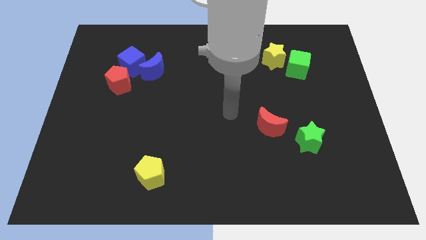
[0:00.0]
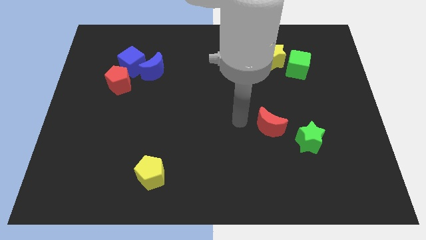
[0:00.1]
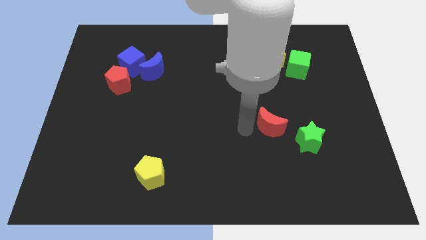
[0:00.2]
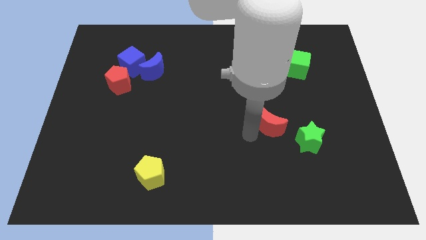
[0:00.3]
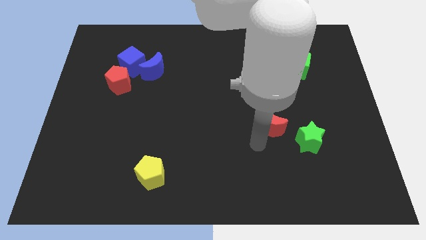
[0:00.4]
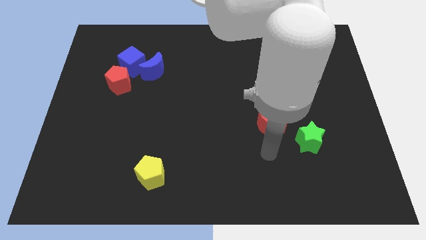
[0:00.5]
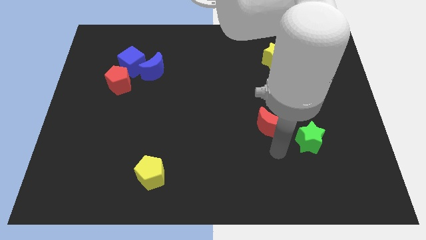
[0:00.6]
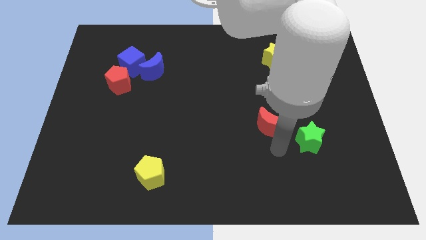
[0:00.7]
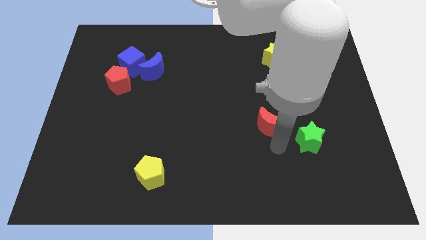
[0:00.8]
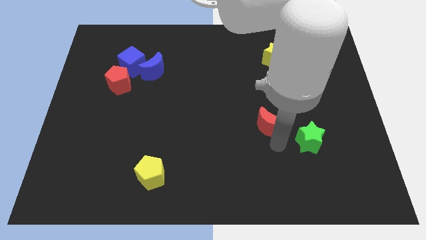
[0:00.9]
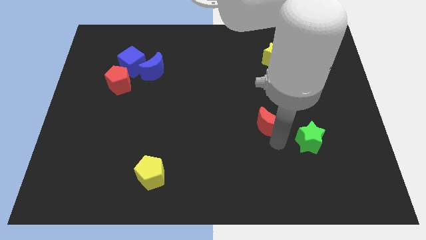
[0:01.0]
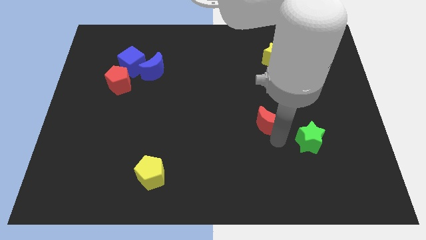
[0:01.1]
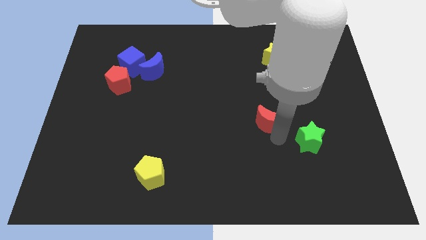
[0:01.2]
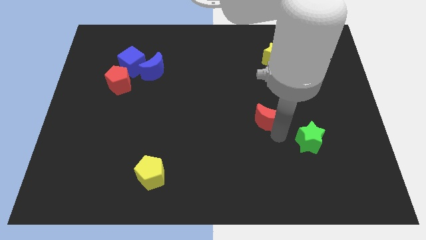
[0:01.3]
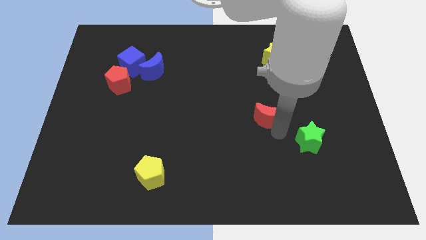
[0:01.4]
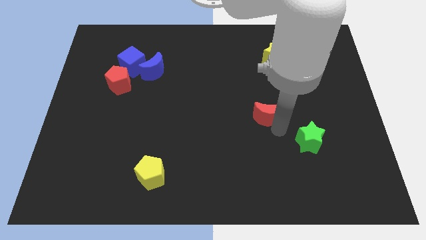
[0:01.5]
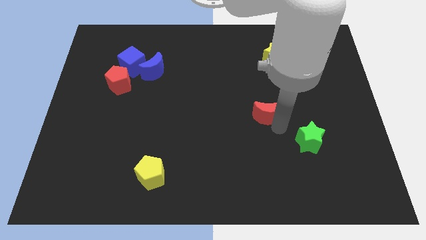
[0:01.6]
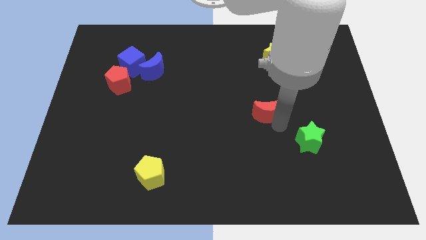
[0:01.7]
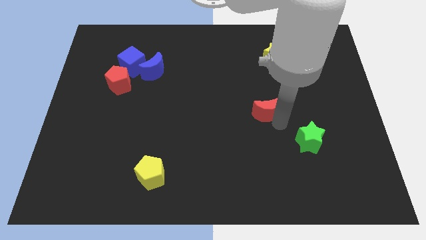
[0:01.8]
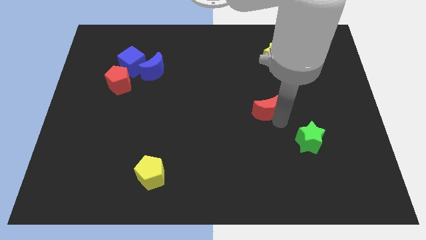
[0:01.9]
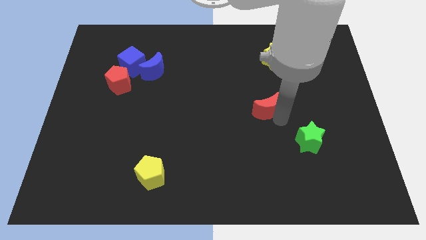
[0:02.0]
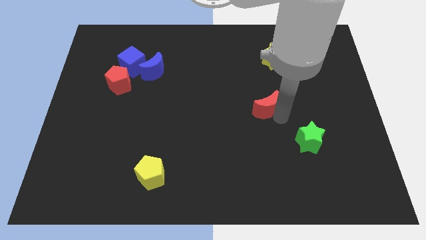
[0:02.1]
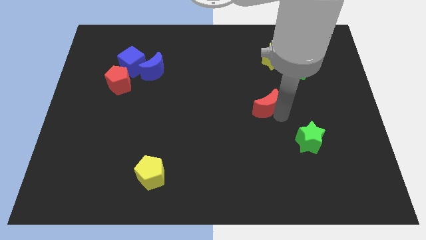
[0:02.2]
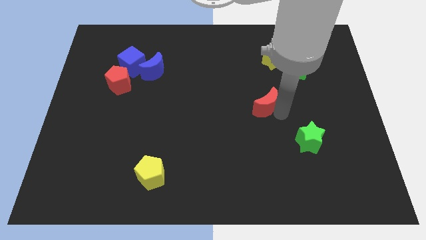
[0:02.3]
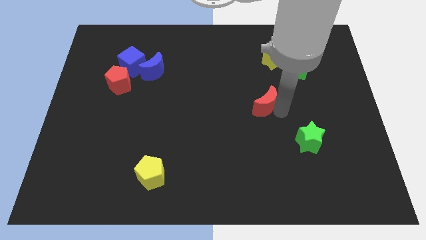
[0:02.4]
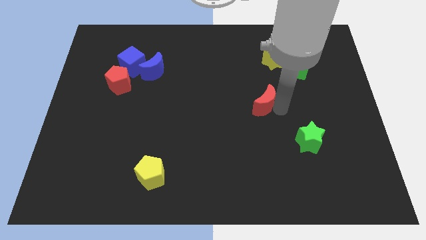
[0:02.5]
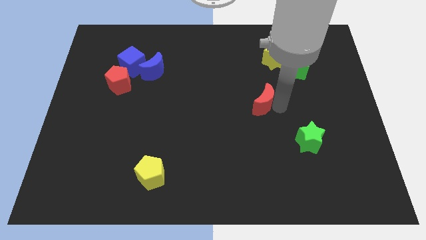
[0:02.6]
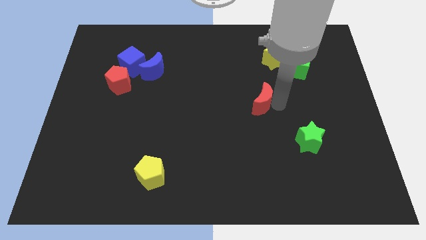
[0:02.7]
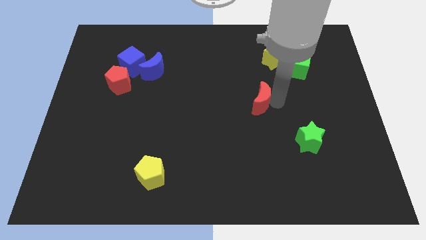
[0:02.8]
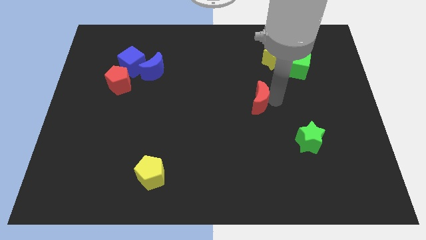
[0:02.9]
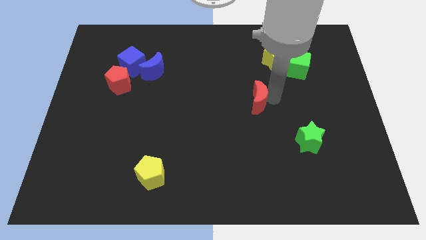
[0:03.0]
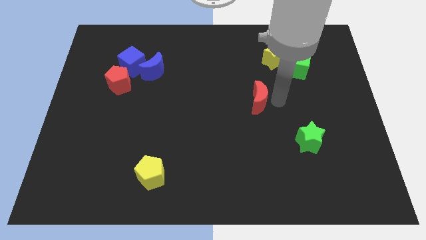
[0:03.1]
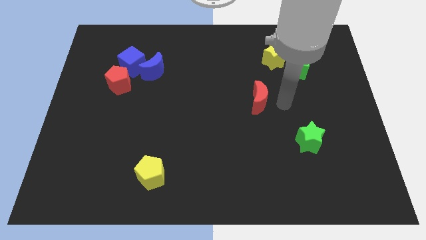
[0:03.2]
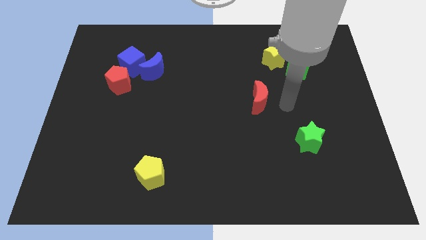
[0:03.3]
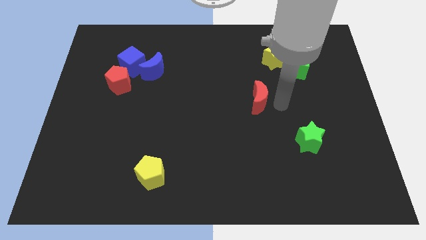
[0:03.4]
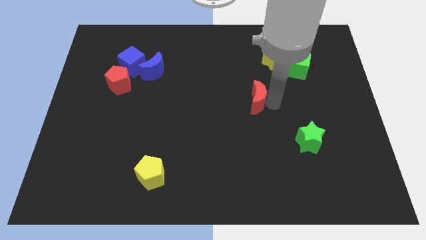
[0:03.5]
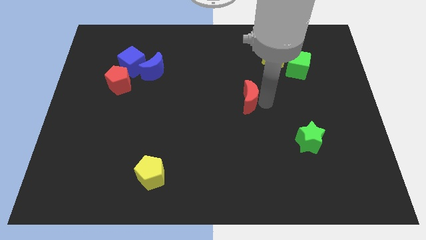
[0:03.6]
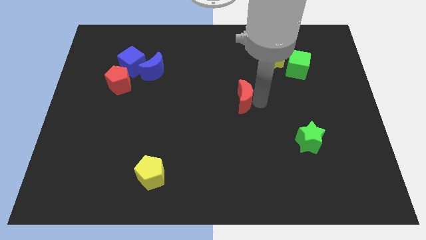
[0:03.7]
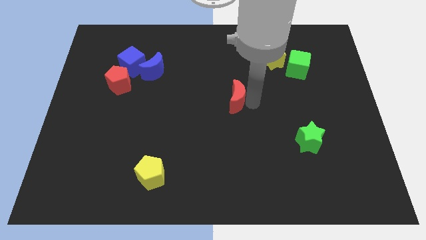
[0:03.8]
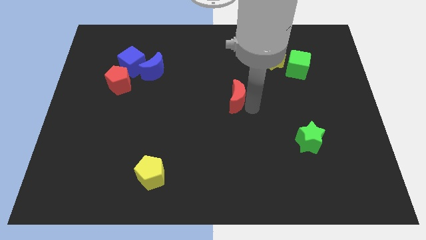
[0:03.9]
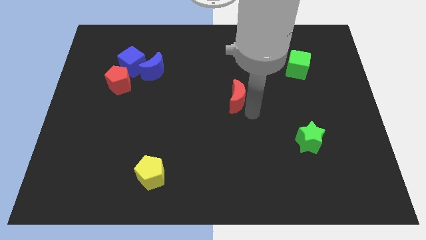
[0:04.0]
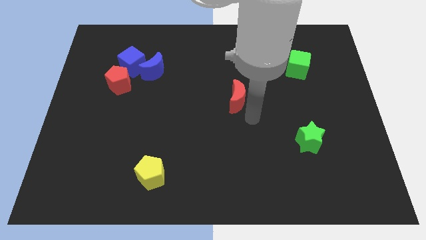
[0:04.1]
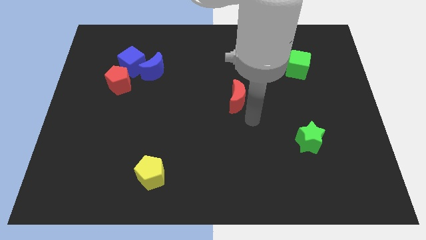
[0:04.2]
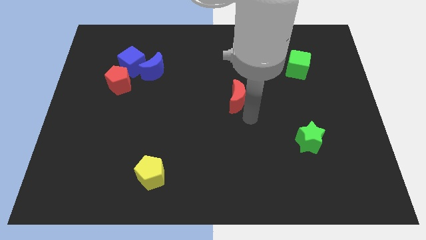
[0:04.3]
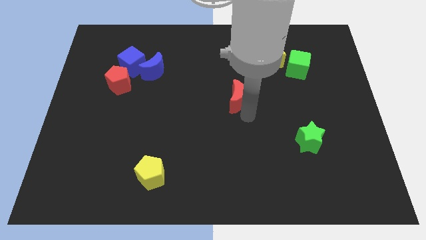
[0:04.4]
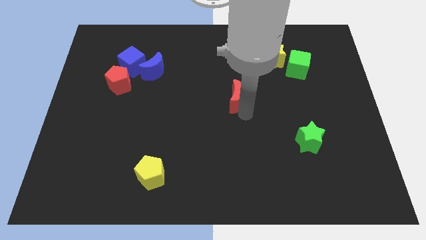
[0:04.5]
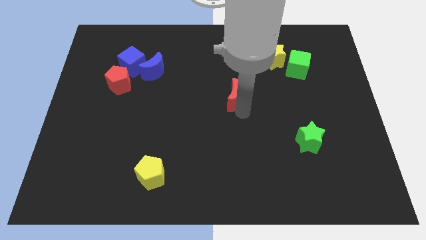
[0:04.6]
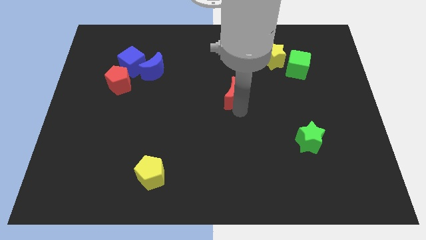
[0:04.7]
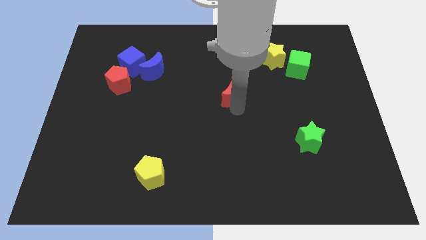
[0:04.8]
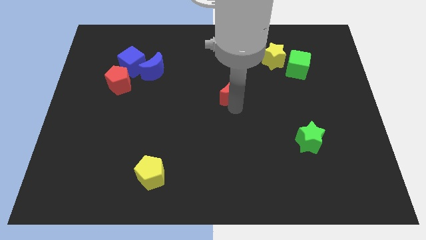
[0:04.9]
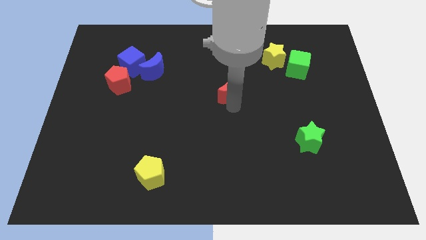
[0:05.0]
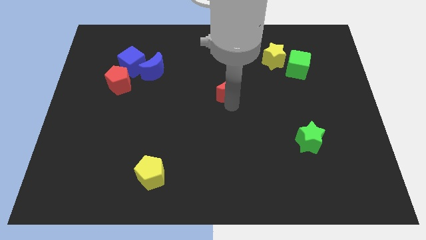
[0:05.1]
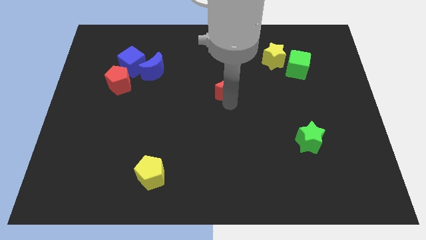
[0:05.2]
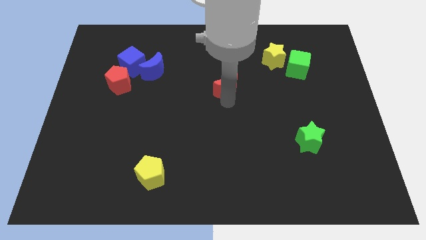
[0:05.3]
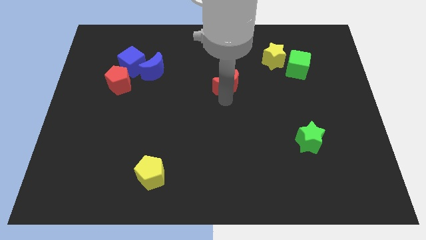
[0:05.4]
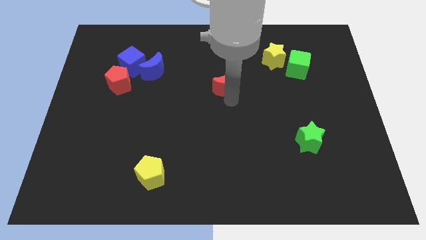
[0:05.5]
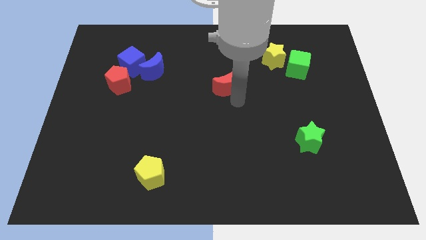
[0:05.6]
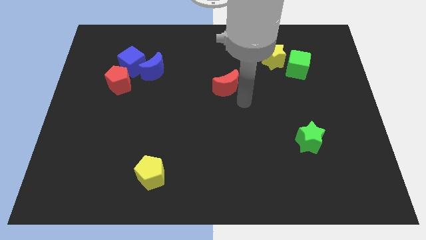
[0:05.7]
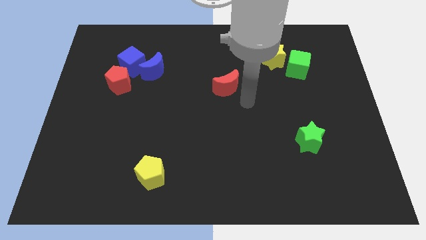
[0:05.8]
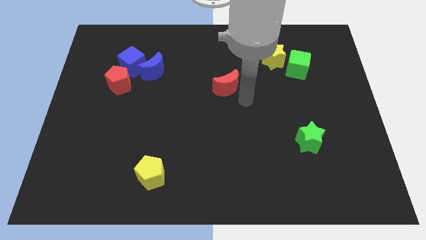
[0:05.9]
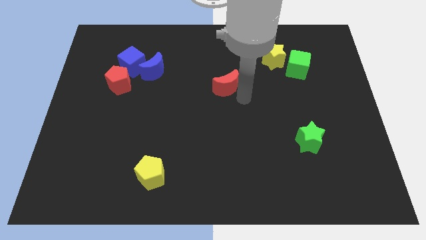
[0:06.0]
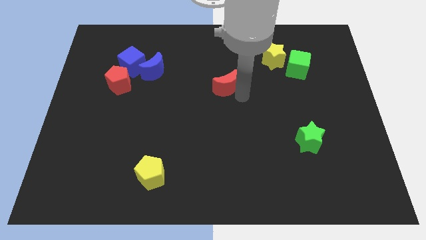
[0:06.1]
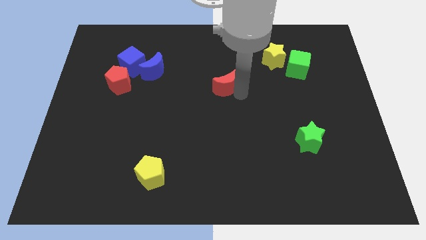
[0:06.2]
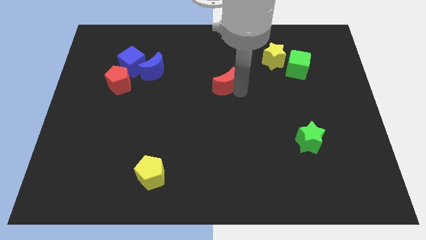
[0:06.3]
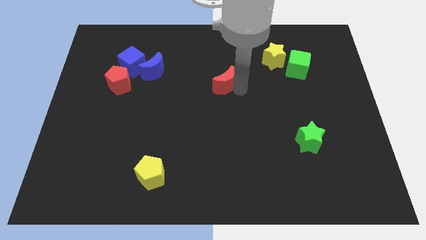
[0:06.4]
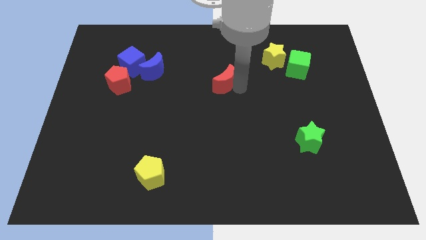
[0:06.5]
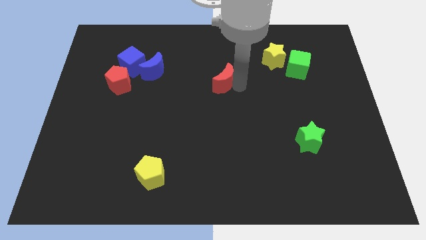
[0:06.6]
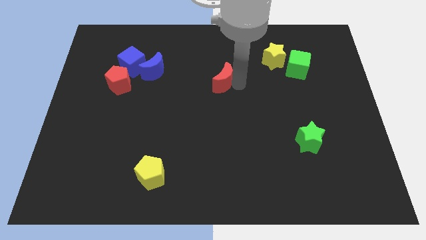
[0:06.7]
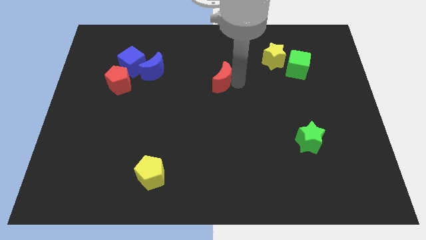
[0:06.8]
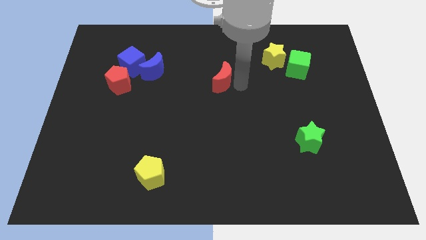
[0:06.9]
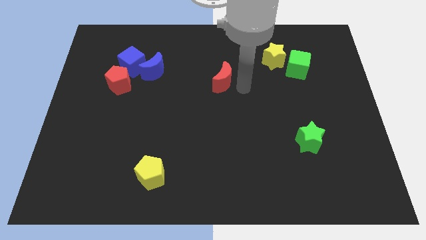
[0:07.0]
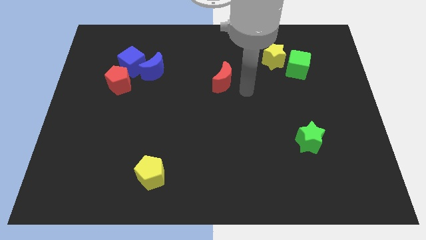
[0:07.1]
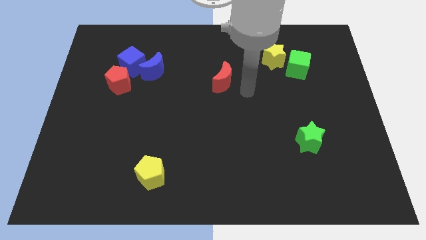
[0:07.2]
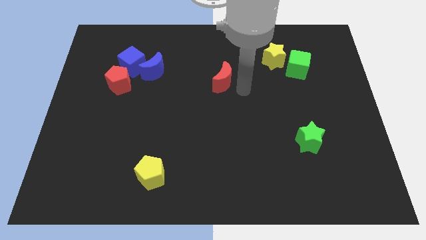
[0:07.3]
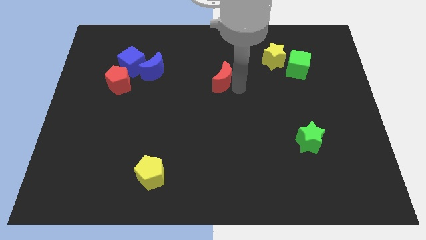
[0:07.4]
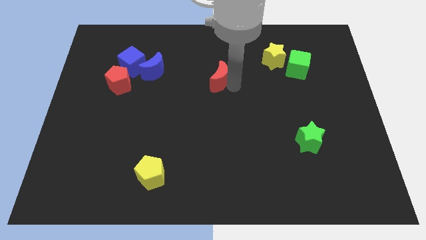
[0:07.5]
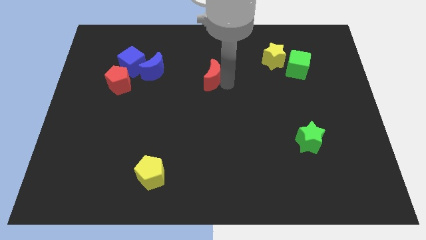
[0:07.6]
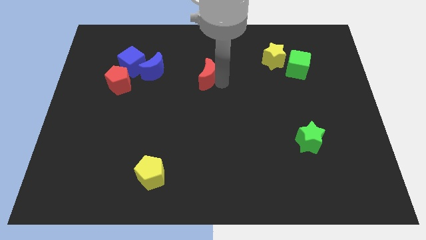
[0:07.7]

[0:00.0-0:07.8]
slide the red moon up and to the left diagonally
